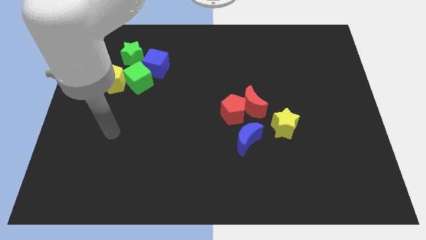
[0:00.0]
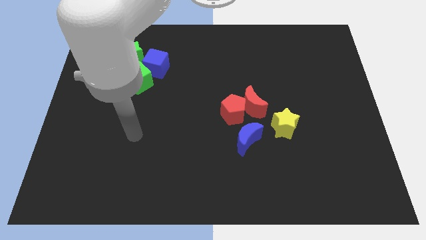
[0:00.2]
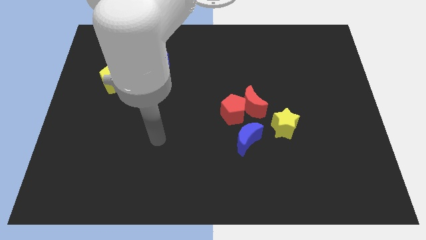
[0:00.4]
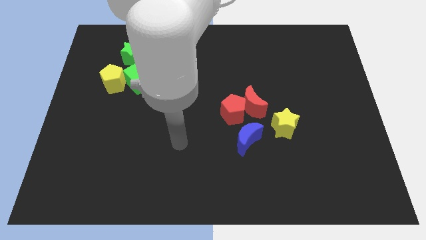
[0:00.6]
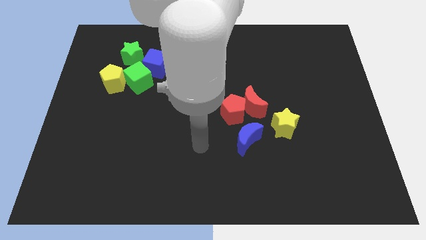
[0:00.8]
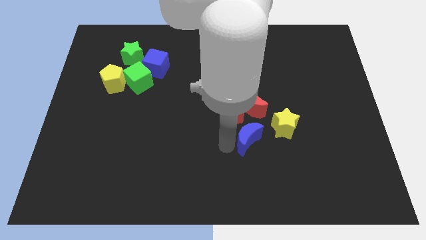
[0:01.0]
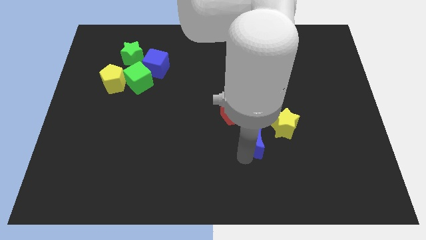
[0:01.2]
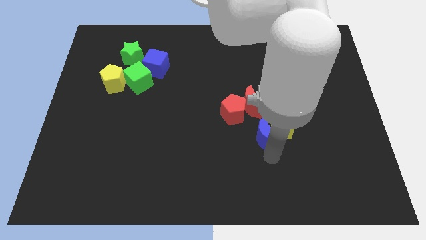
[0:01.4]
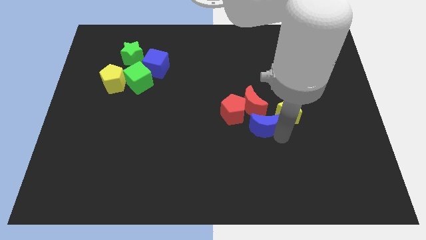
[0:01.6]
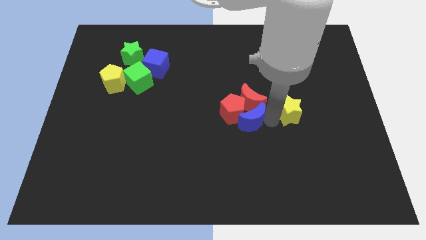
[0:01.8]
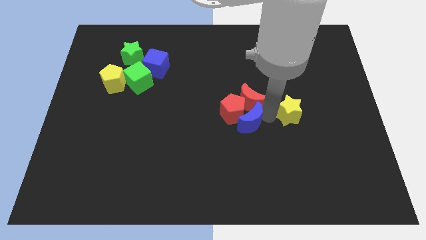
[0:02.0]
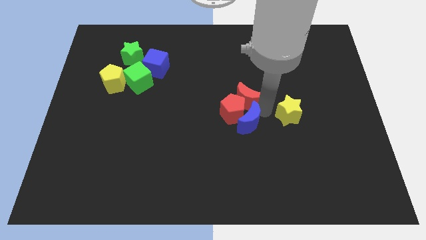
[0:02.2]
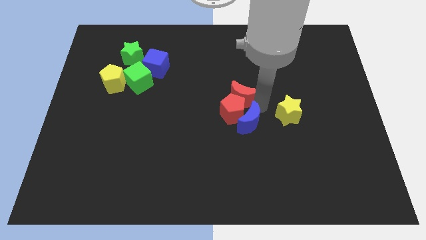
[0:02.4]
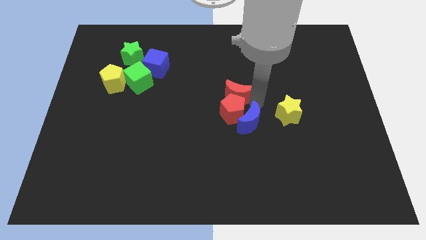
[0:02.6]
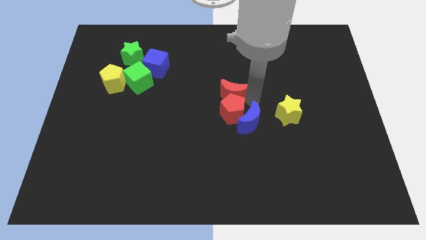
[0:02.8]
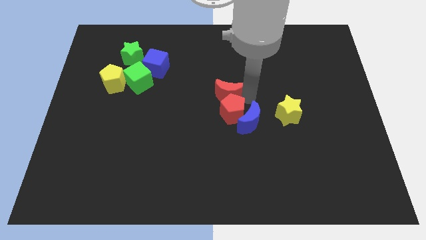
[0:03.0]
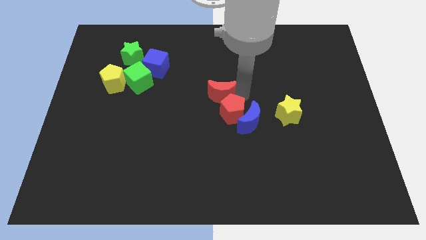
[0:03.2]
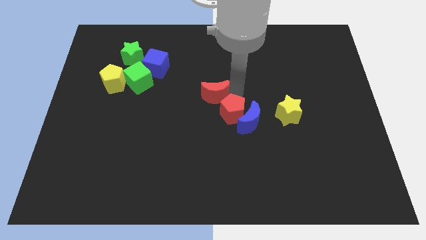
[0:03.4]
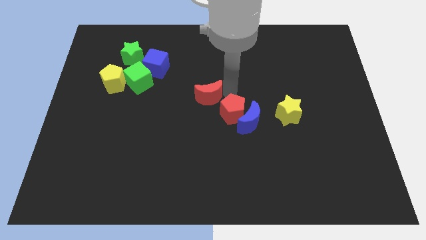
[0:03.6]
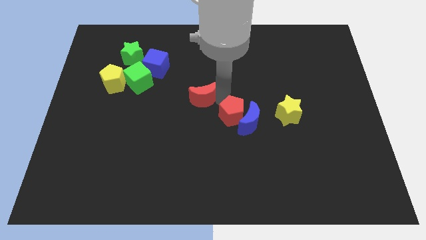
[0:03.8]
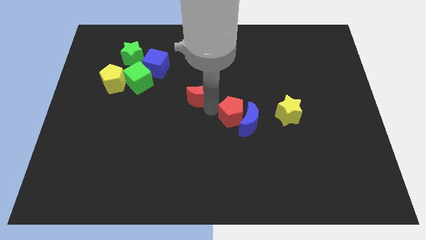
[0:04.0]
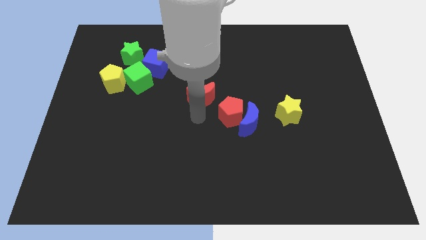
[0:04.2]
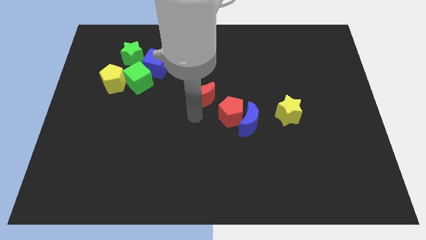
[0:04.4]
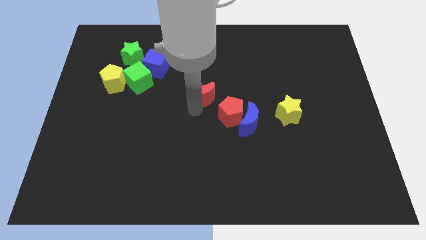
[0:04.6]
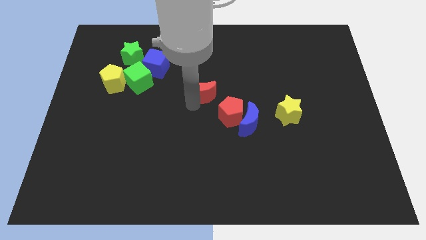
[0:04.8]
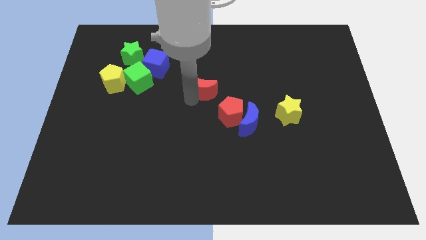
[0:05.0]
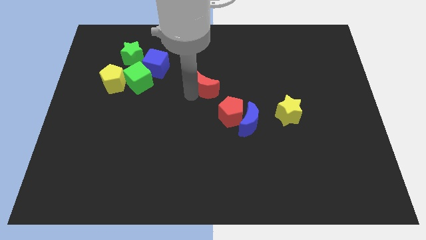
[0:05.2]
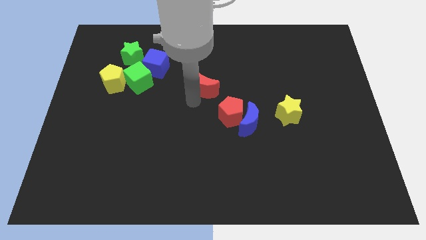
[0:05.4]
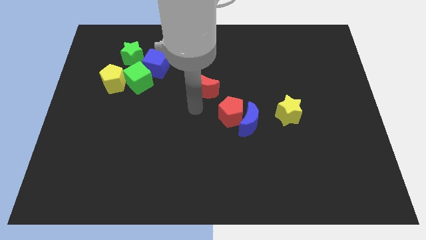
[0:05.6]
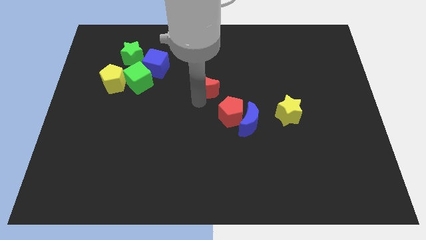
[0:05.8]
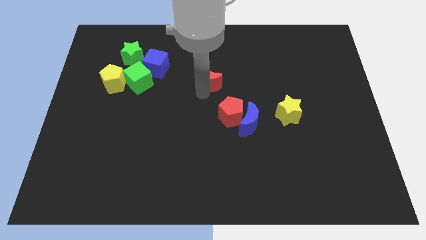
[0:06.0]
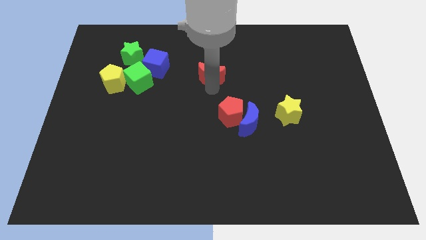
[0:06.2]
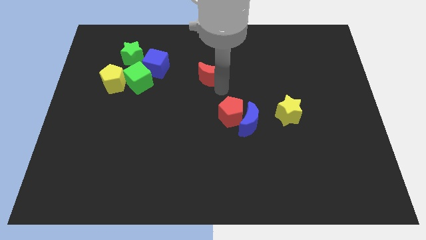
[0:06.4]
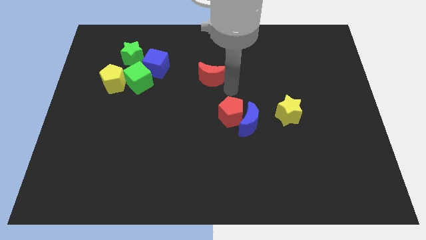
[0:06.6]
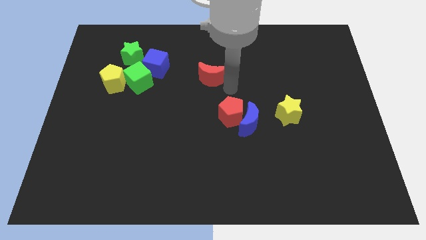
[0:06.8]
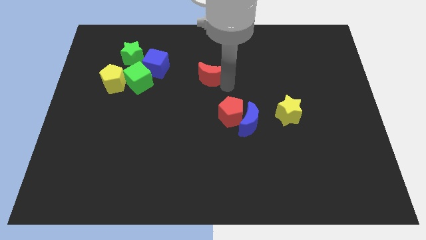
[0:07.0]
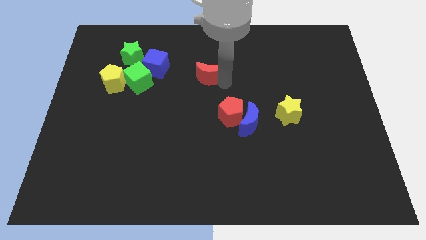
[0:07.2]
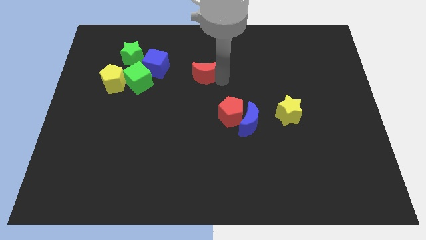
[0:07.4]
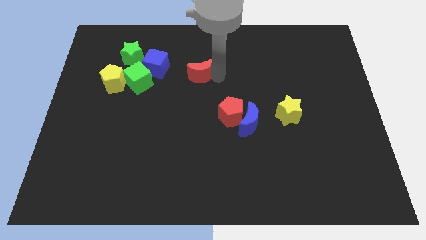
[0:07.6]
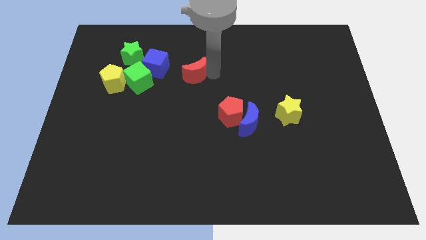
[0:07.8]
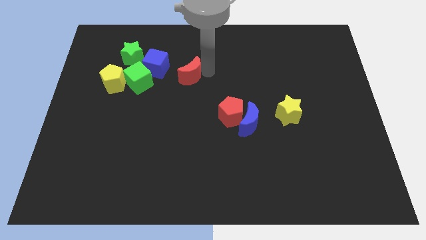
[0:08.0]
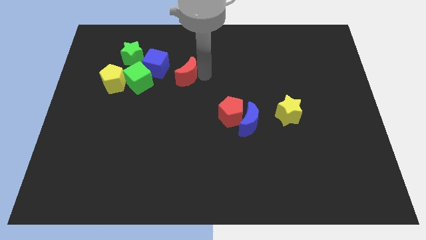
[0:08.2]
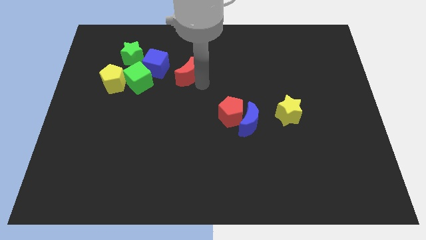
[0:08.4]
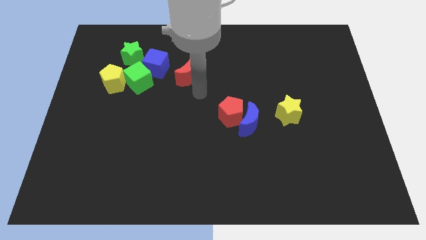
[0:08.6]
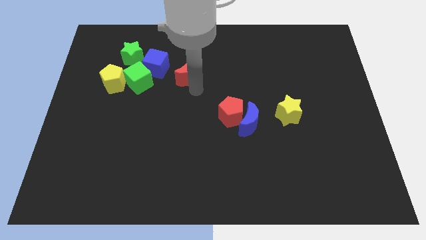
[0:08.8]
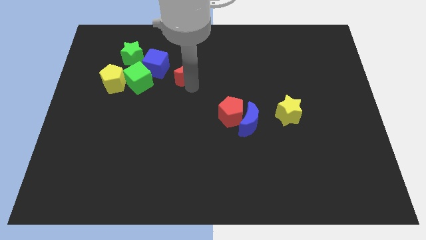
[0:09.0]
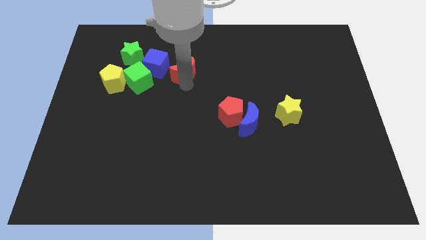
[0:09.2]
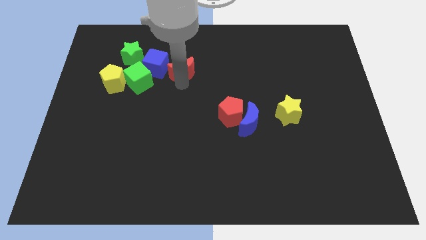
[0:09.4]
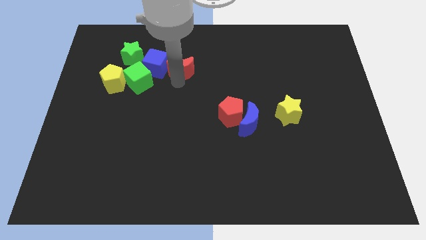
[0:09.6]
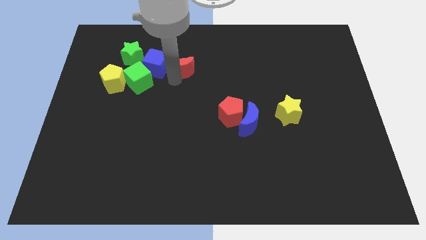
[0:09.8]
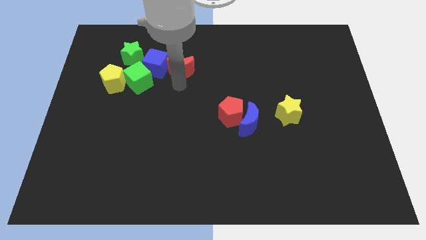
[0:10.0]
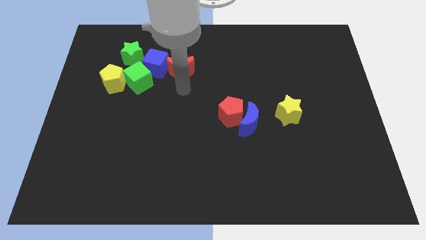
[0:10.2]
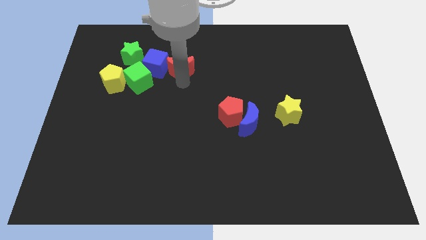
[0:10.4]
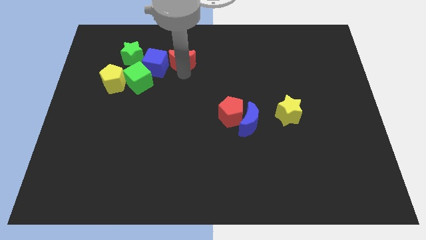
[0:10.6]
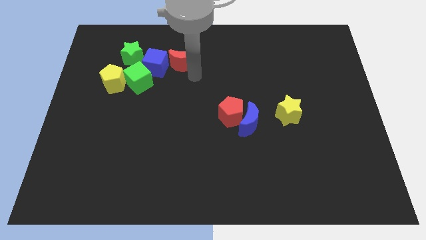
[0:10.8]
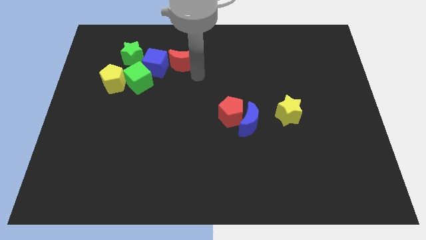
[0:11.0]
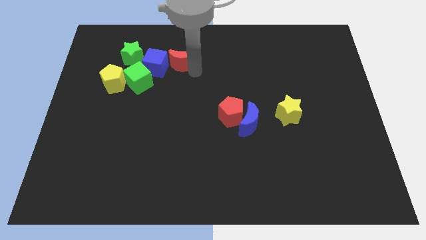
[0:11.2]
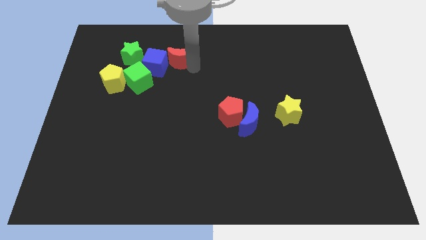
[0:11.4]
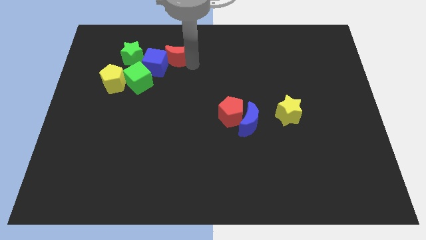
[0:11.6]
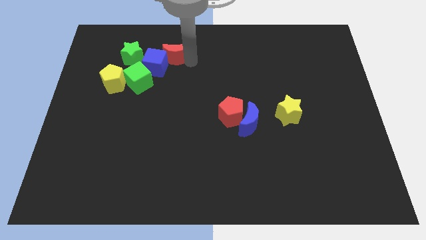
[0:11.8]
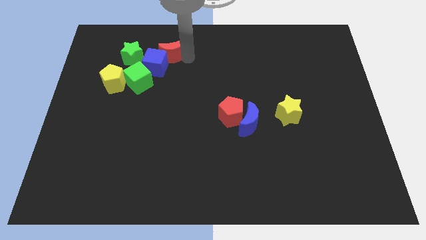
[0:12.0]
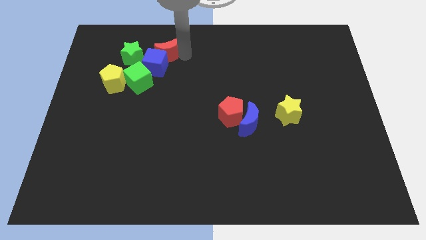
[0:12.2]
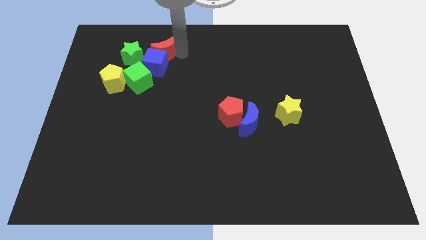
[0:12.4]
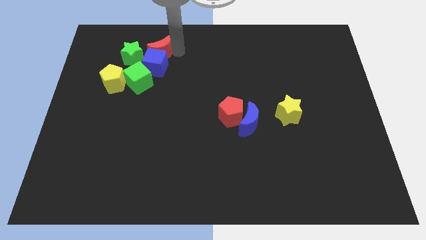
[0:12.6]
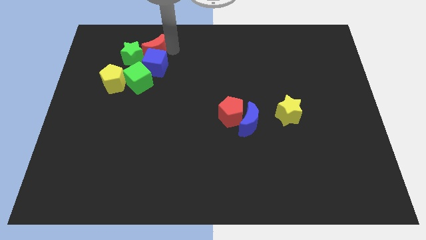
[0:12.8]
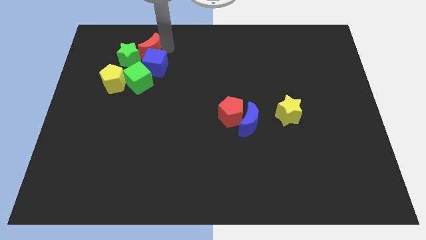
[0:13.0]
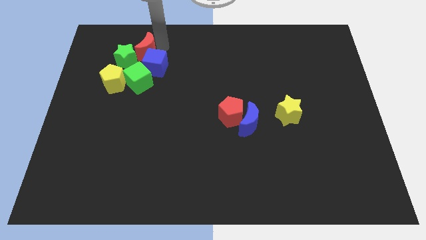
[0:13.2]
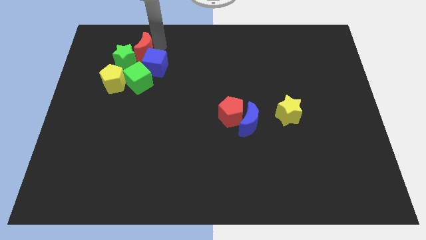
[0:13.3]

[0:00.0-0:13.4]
push the red moon to the green star

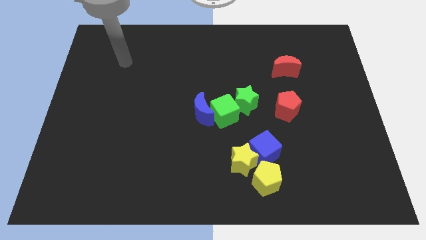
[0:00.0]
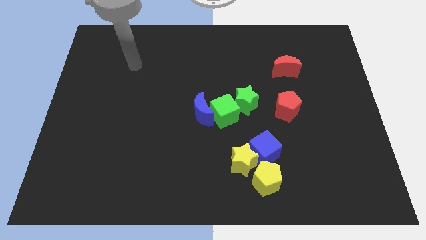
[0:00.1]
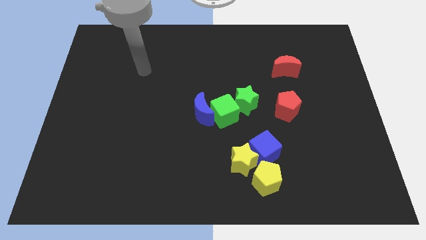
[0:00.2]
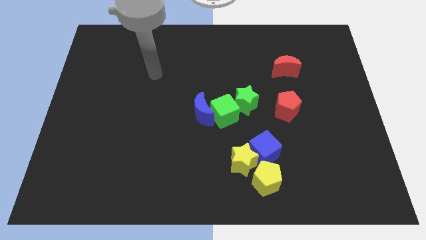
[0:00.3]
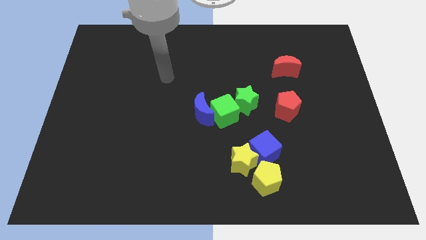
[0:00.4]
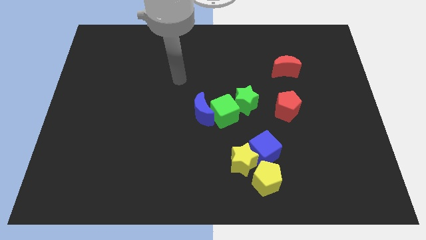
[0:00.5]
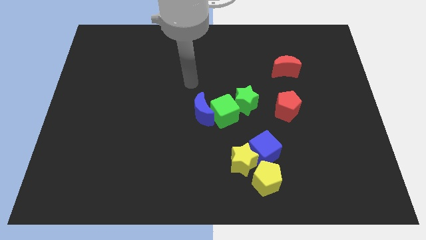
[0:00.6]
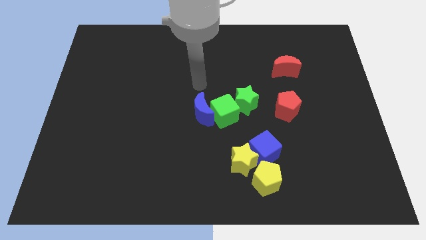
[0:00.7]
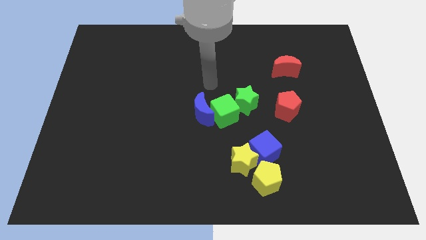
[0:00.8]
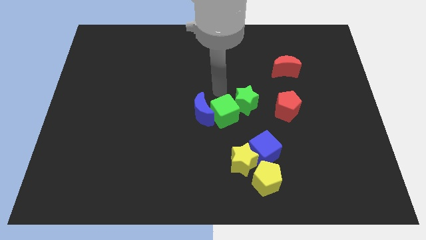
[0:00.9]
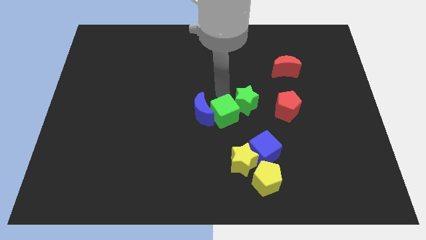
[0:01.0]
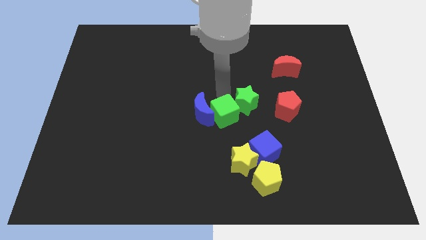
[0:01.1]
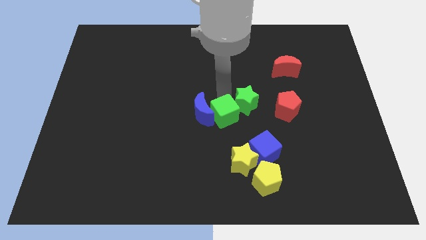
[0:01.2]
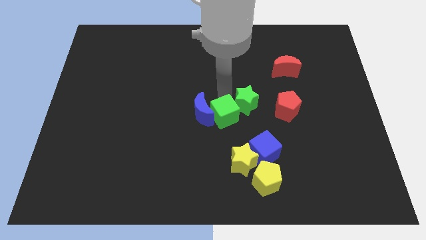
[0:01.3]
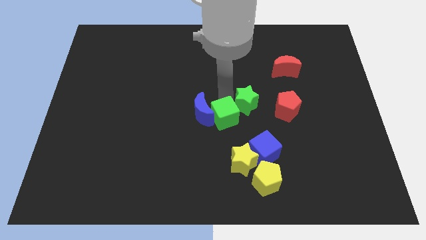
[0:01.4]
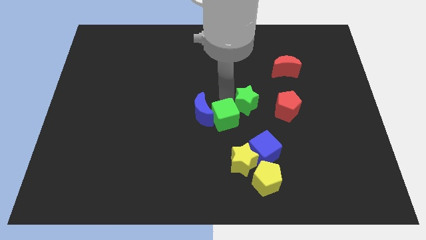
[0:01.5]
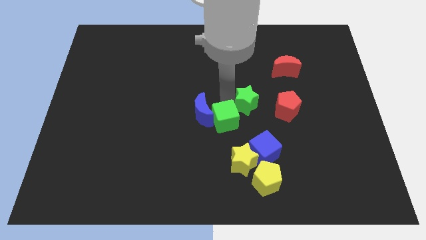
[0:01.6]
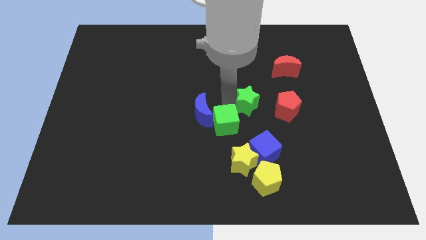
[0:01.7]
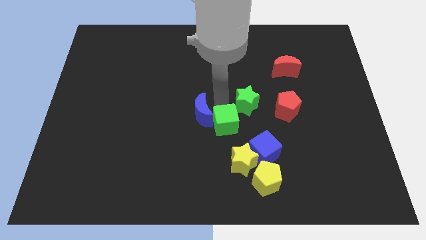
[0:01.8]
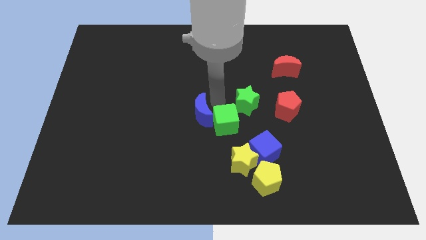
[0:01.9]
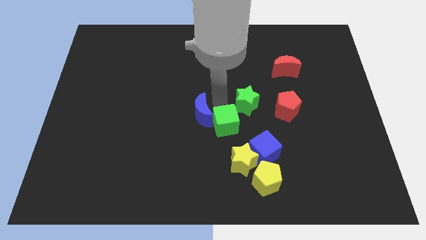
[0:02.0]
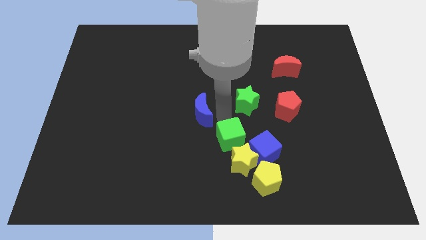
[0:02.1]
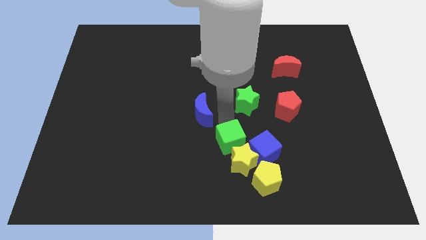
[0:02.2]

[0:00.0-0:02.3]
put the green cube towards the yellow star
